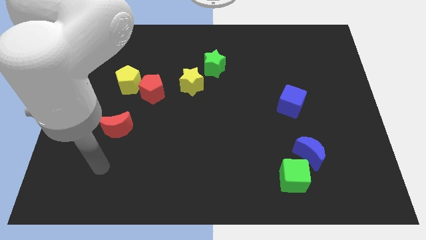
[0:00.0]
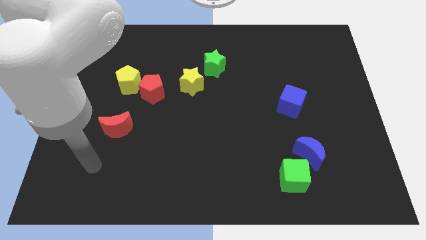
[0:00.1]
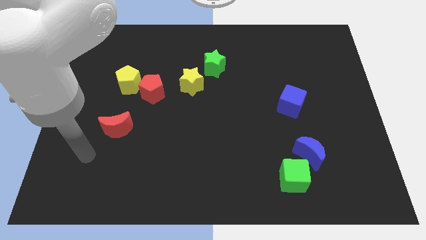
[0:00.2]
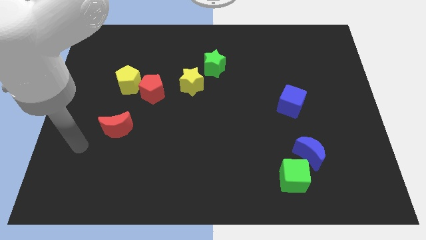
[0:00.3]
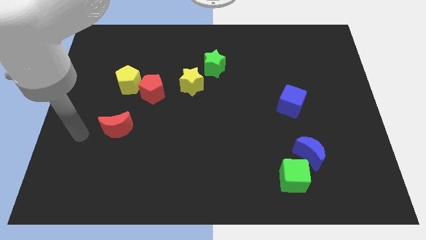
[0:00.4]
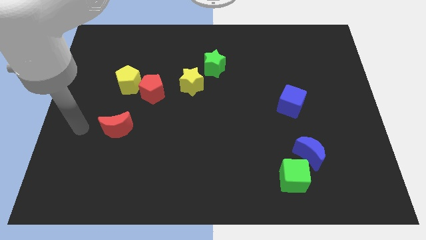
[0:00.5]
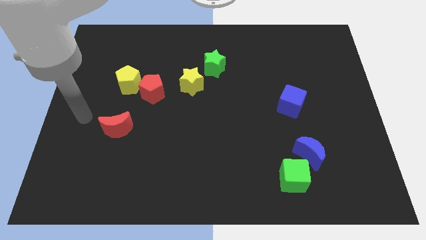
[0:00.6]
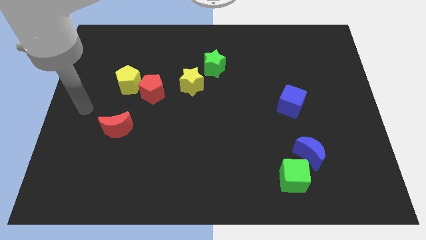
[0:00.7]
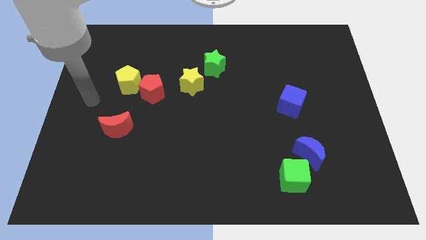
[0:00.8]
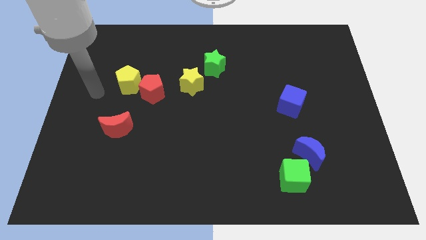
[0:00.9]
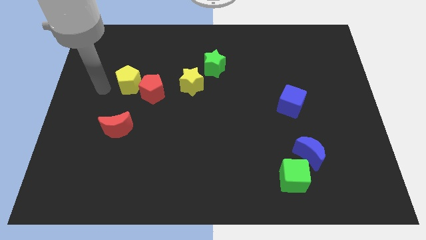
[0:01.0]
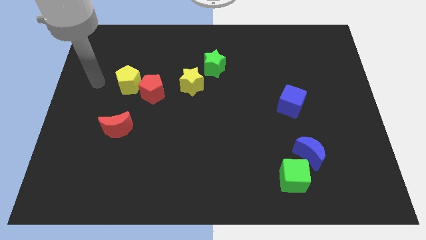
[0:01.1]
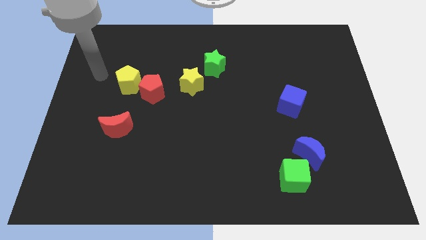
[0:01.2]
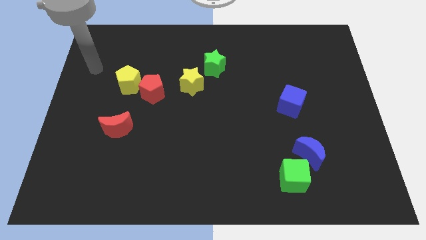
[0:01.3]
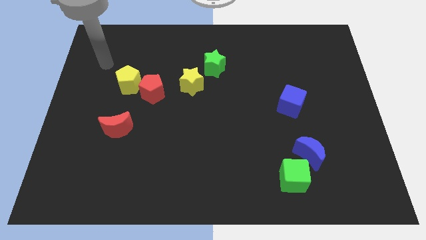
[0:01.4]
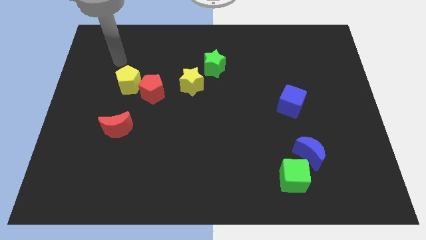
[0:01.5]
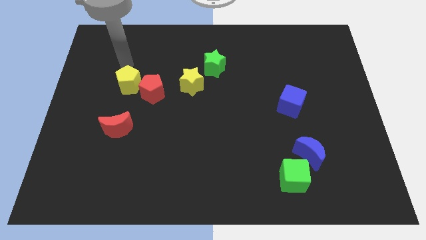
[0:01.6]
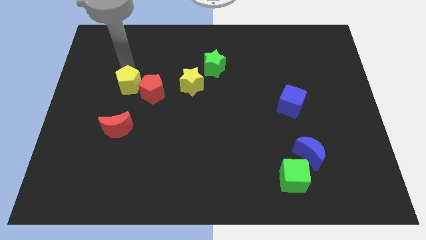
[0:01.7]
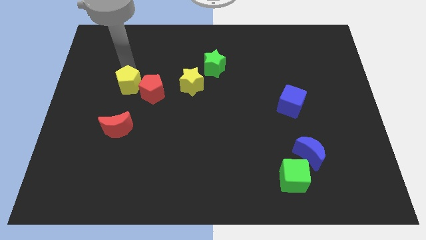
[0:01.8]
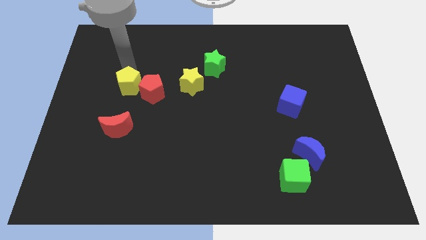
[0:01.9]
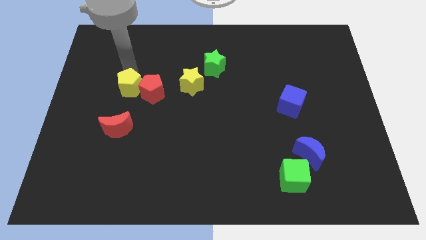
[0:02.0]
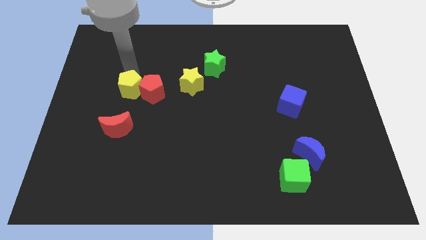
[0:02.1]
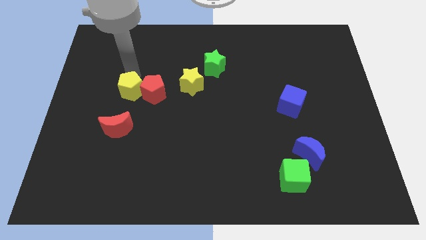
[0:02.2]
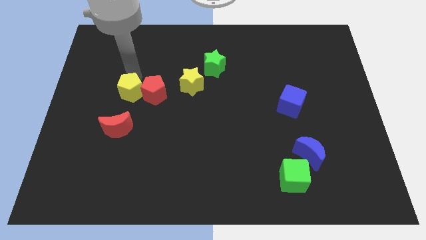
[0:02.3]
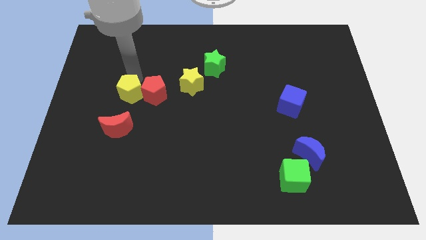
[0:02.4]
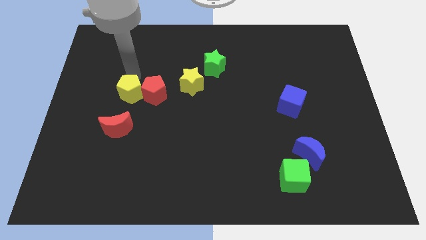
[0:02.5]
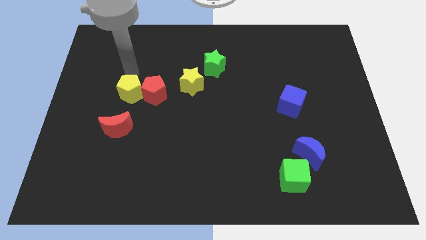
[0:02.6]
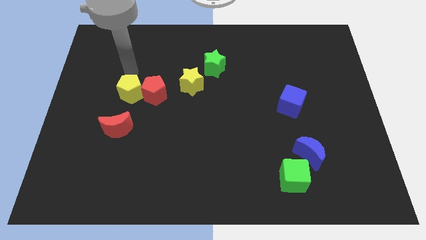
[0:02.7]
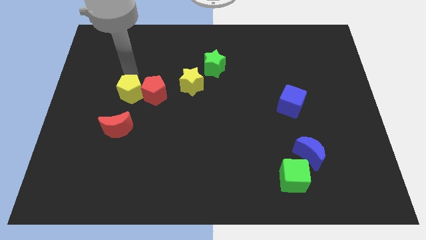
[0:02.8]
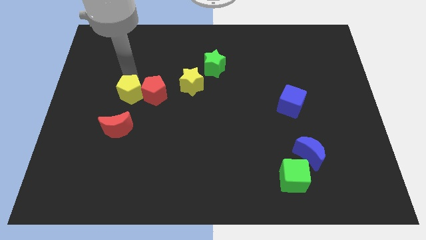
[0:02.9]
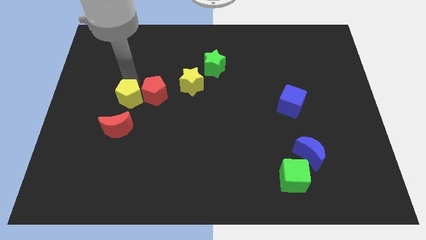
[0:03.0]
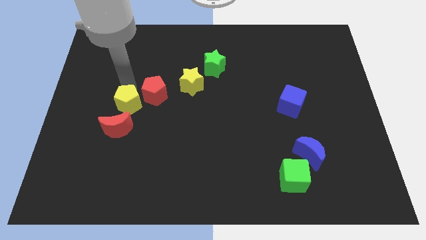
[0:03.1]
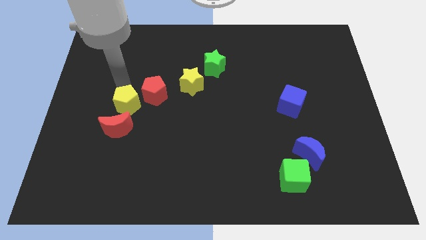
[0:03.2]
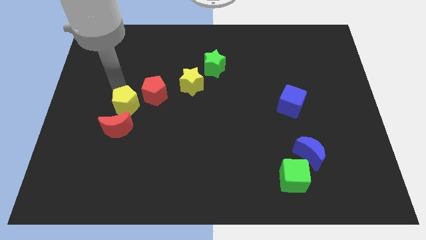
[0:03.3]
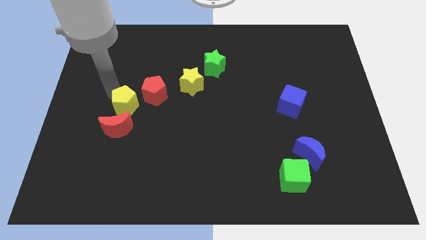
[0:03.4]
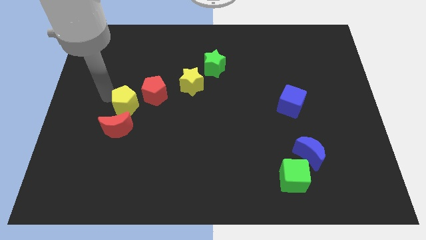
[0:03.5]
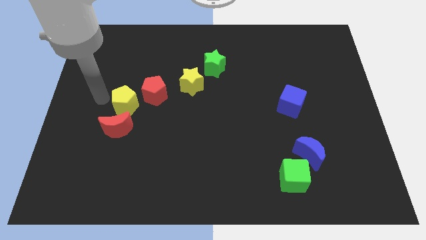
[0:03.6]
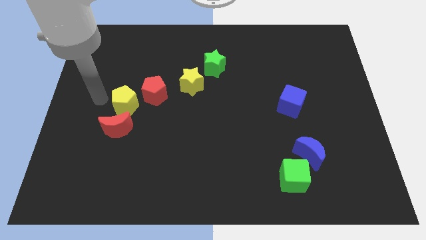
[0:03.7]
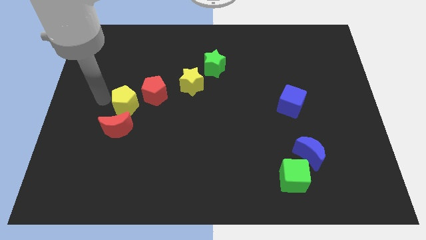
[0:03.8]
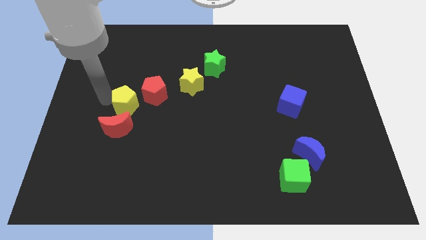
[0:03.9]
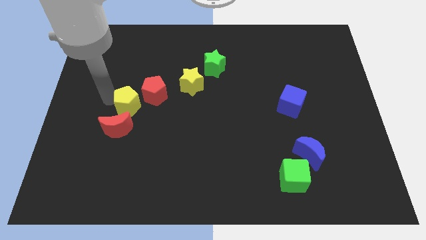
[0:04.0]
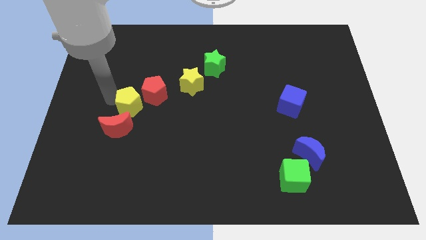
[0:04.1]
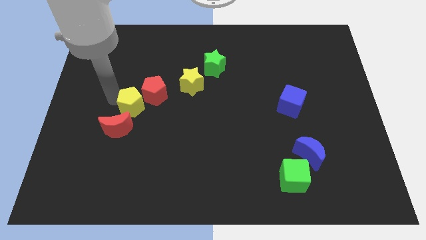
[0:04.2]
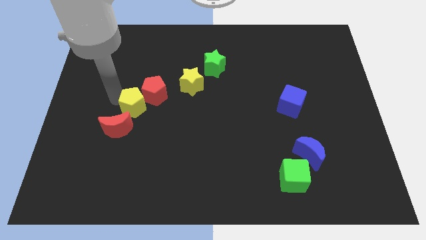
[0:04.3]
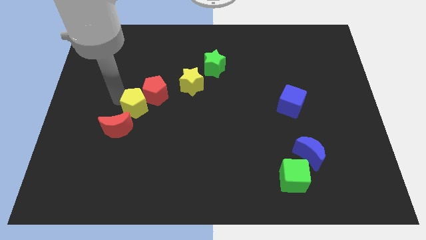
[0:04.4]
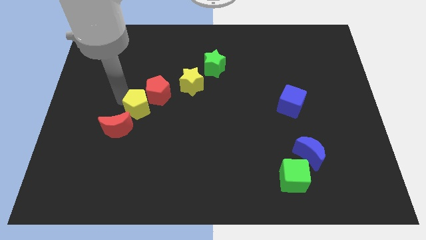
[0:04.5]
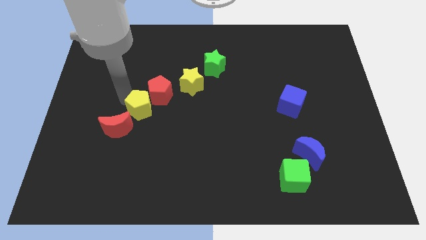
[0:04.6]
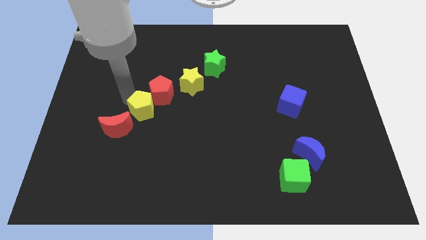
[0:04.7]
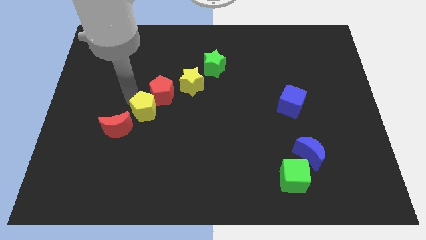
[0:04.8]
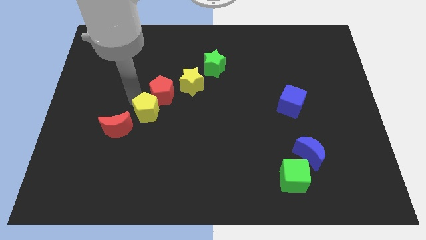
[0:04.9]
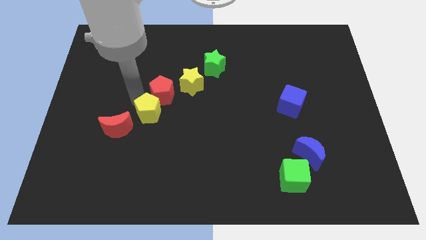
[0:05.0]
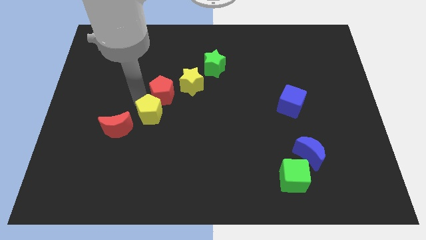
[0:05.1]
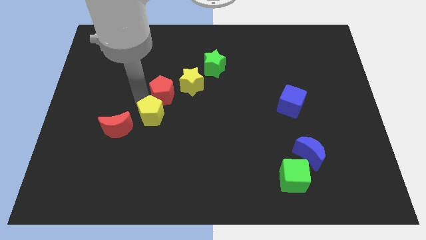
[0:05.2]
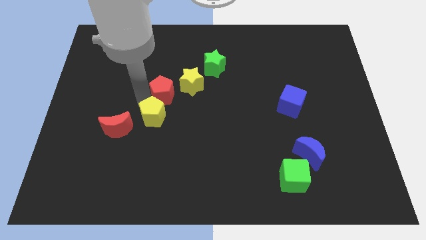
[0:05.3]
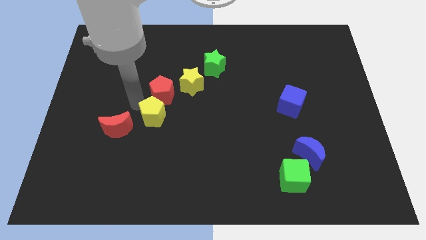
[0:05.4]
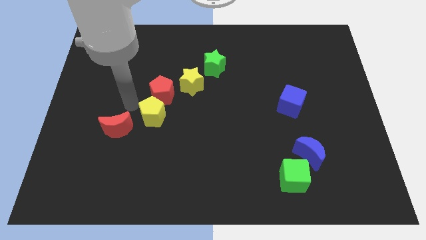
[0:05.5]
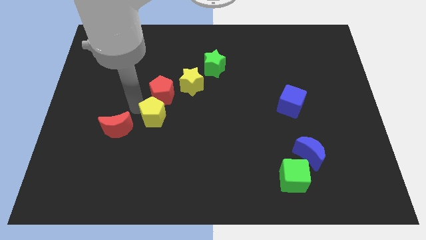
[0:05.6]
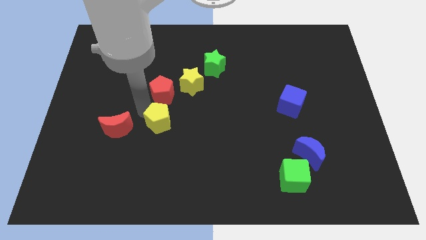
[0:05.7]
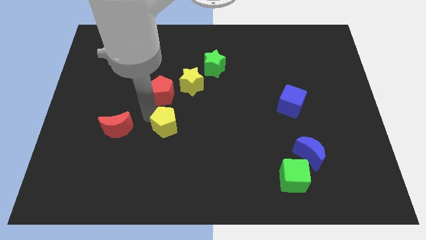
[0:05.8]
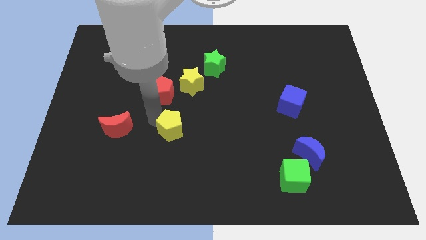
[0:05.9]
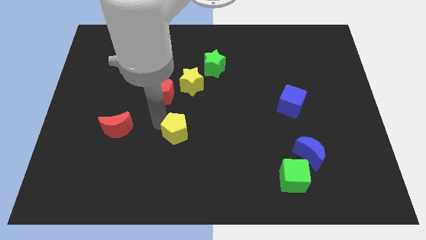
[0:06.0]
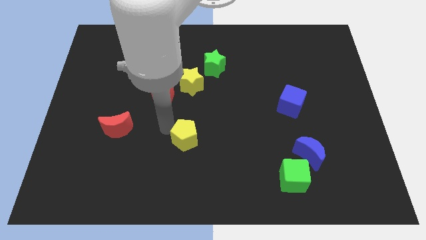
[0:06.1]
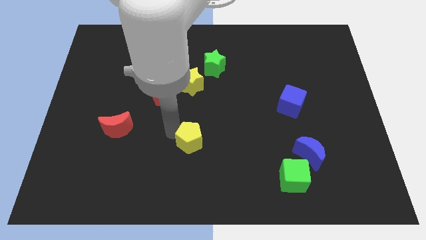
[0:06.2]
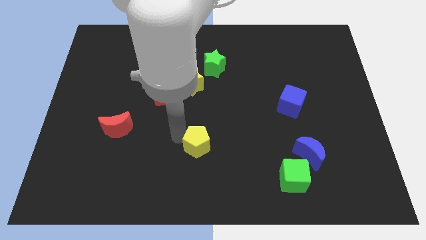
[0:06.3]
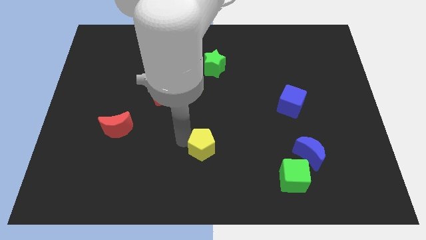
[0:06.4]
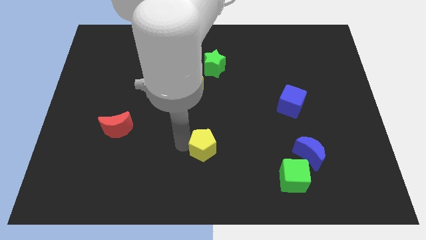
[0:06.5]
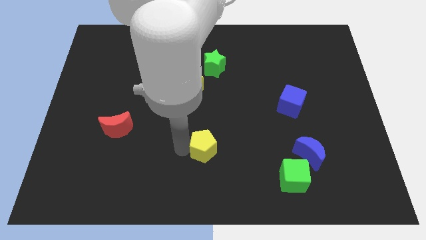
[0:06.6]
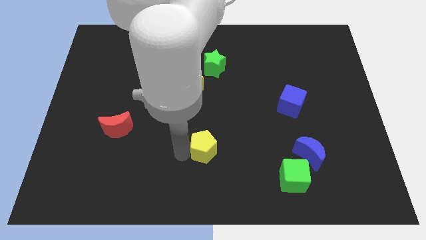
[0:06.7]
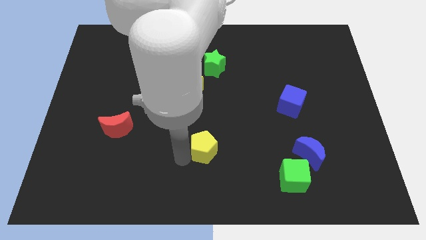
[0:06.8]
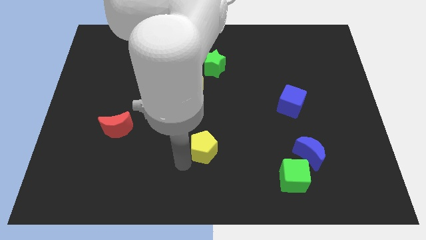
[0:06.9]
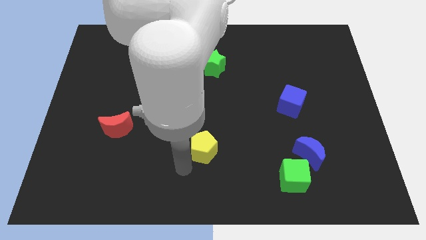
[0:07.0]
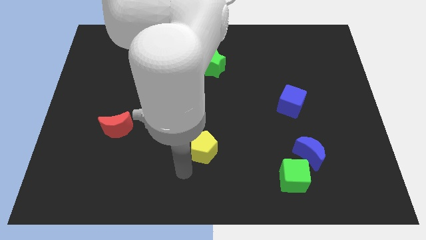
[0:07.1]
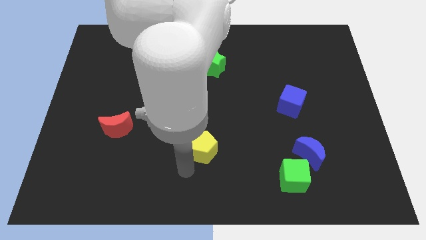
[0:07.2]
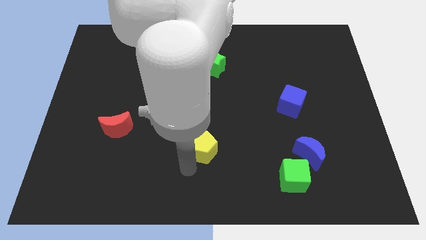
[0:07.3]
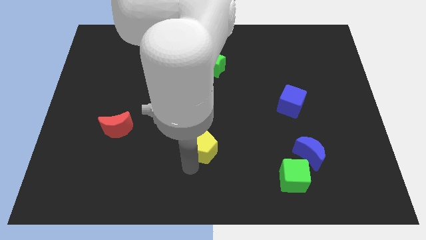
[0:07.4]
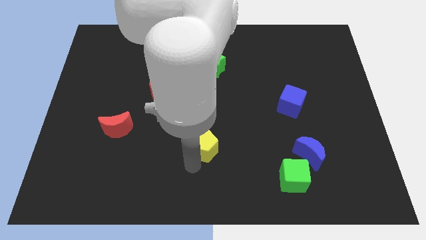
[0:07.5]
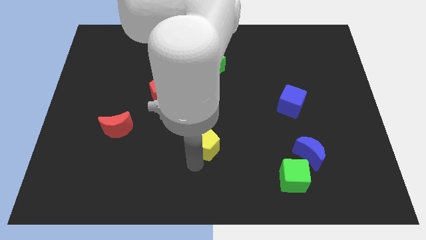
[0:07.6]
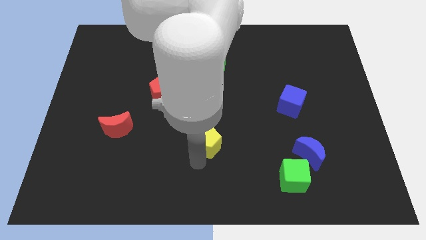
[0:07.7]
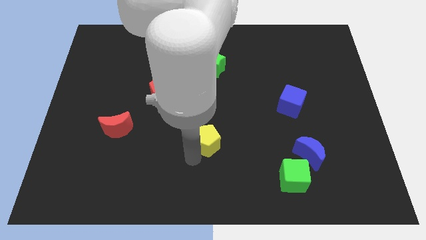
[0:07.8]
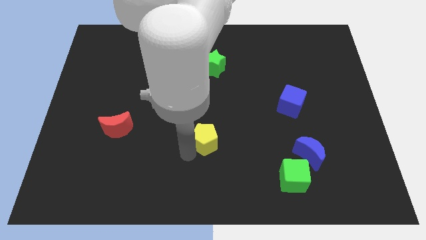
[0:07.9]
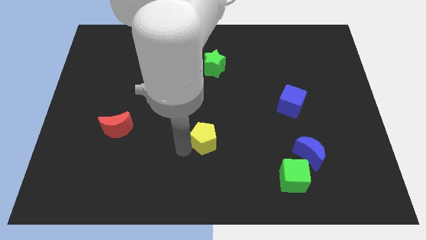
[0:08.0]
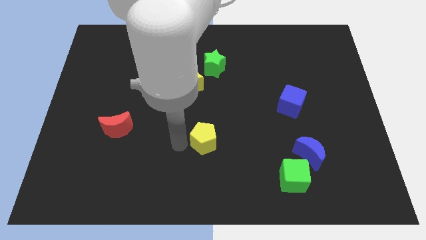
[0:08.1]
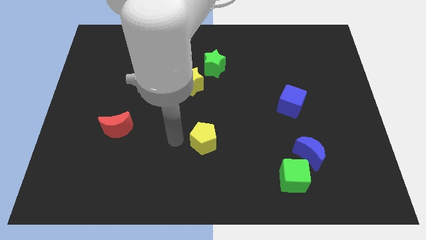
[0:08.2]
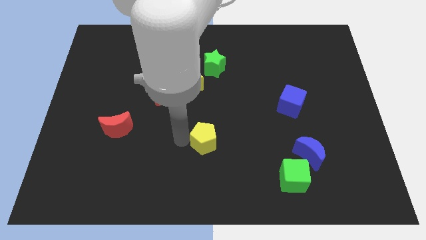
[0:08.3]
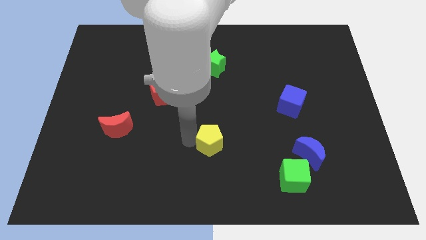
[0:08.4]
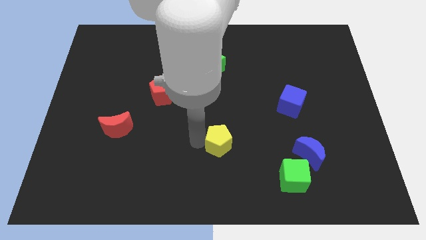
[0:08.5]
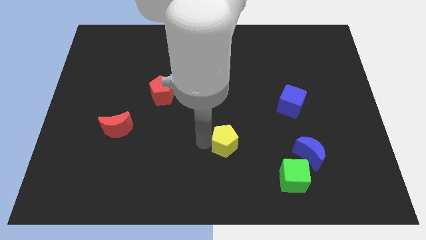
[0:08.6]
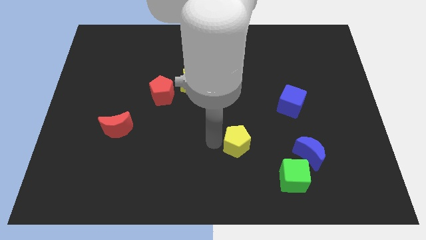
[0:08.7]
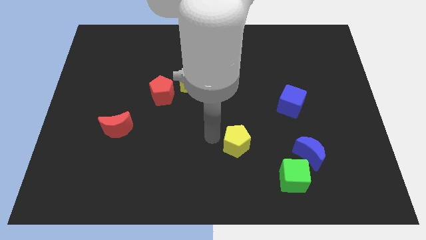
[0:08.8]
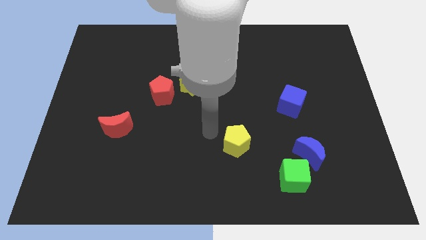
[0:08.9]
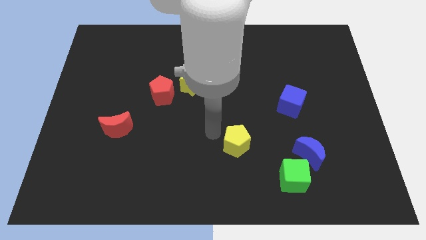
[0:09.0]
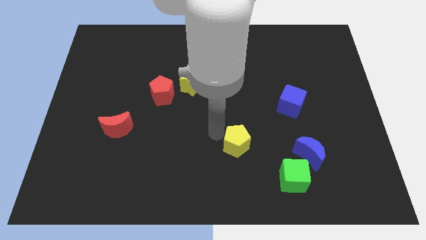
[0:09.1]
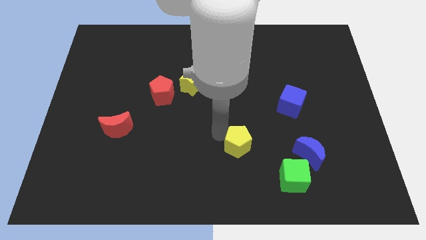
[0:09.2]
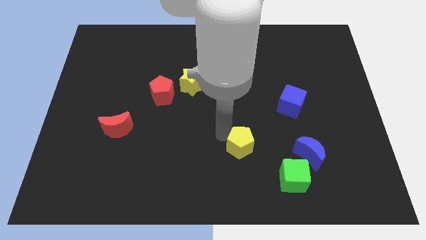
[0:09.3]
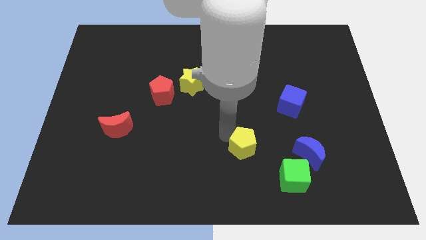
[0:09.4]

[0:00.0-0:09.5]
push the yellow pentagon diagonally up and to the left of the green cube
